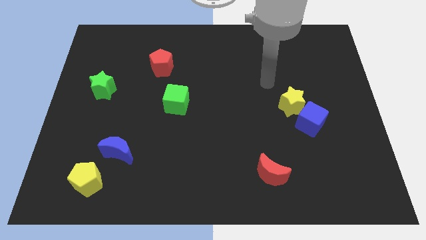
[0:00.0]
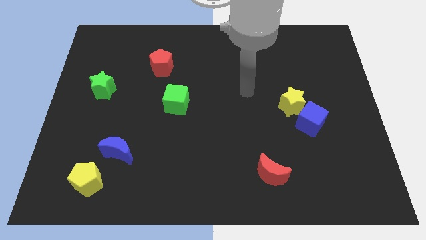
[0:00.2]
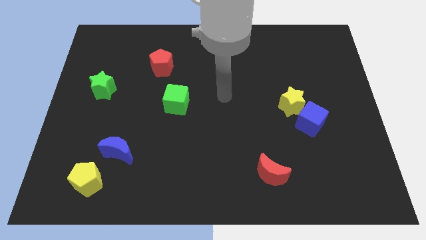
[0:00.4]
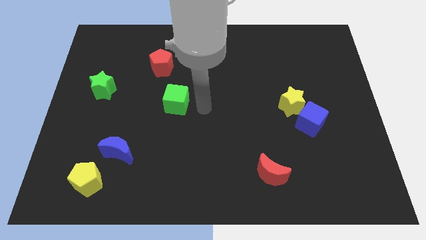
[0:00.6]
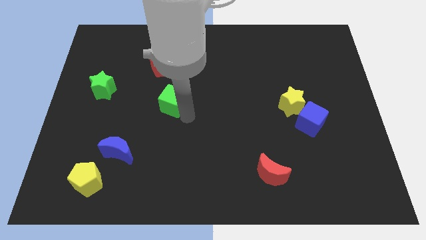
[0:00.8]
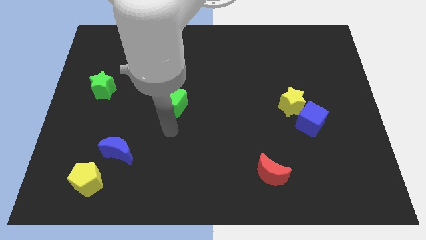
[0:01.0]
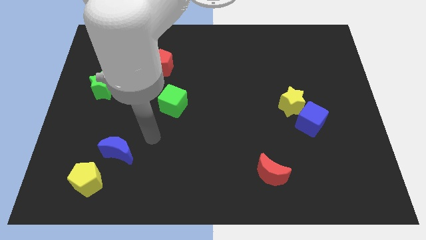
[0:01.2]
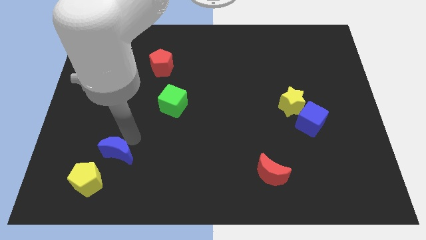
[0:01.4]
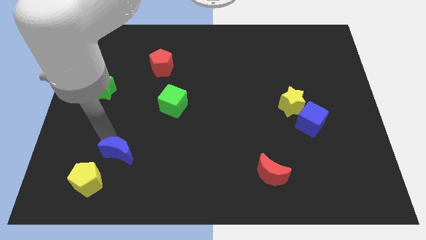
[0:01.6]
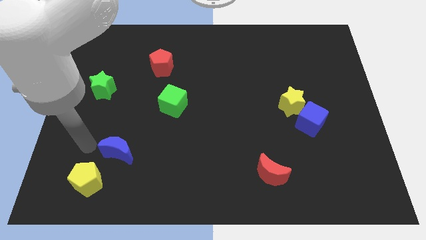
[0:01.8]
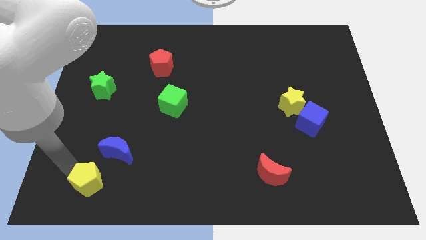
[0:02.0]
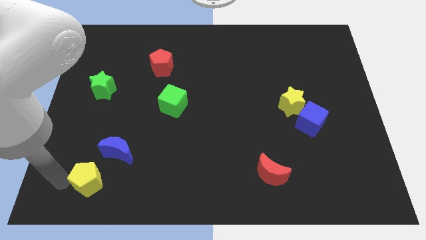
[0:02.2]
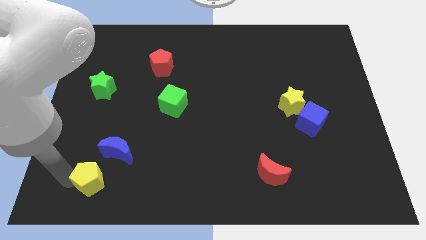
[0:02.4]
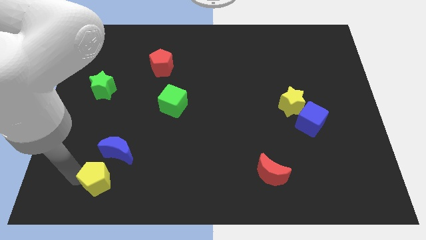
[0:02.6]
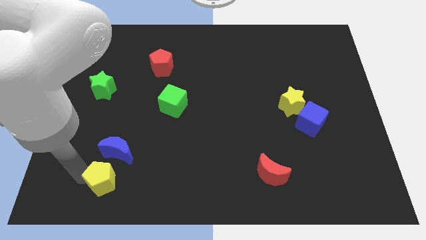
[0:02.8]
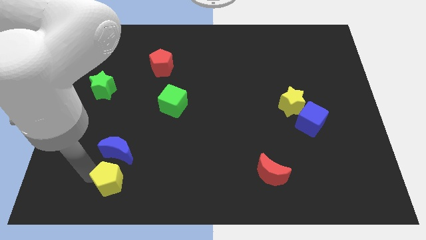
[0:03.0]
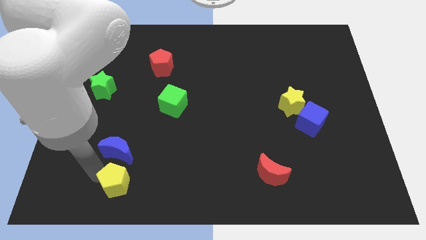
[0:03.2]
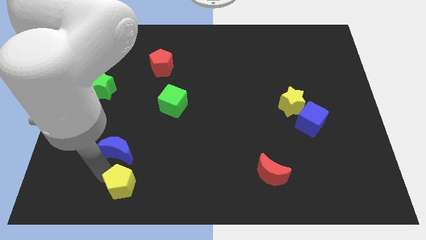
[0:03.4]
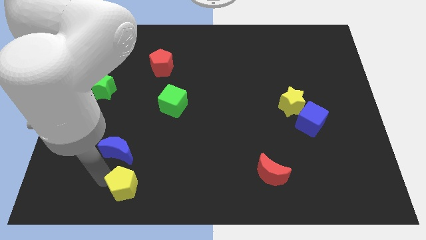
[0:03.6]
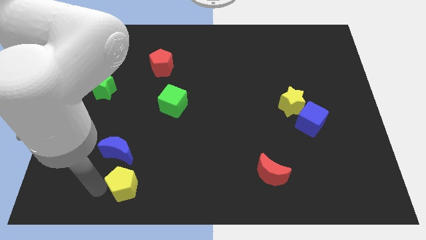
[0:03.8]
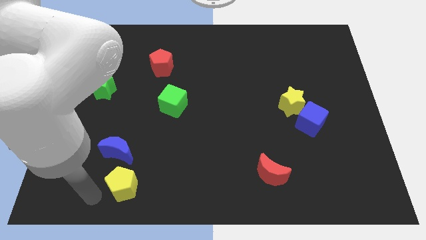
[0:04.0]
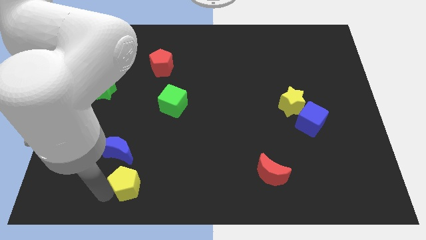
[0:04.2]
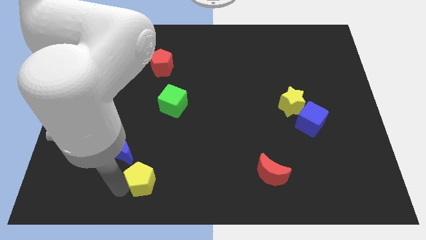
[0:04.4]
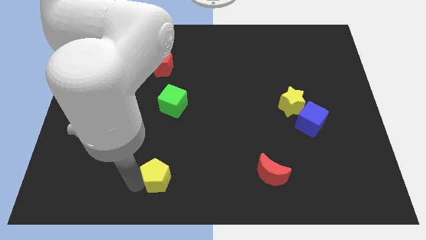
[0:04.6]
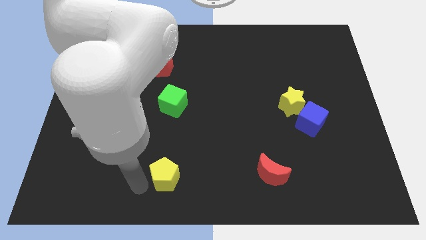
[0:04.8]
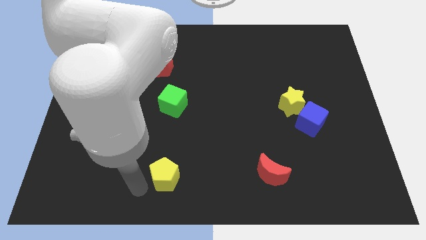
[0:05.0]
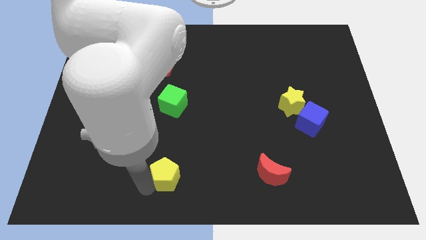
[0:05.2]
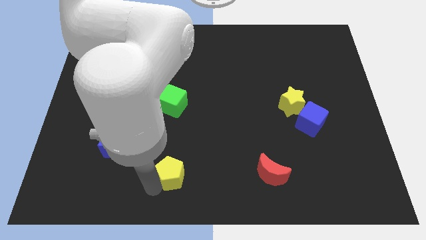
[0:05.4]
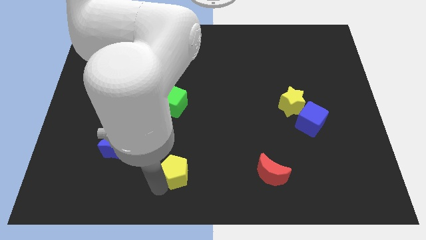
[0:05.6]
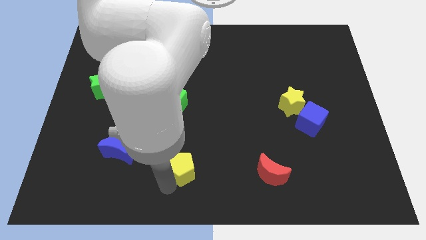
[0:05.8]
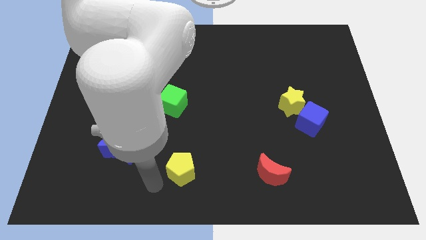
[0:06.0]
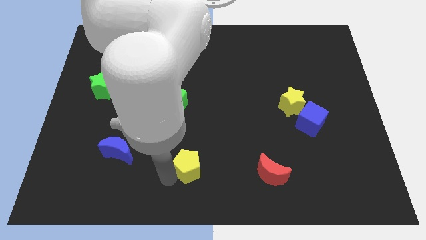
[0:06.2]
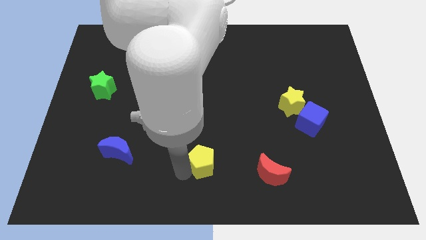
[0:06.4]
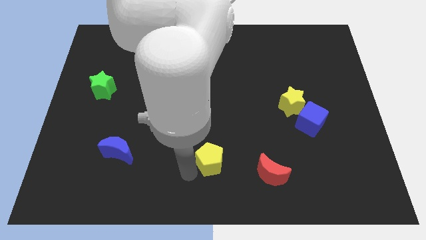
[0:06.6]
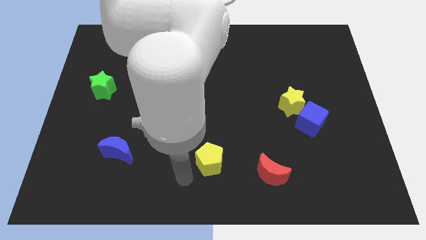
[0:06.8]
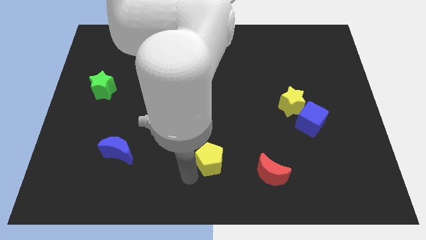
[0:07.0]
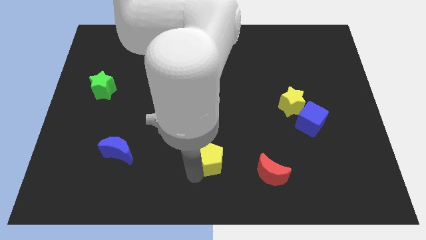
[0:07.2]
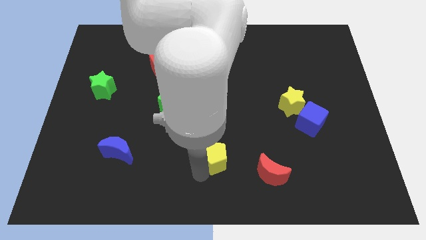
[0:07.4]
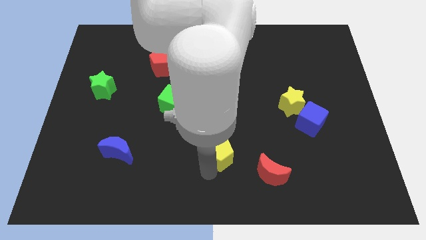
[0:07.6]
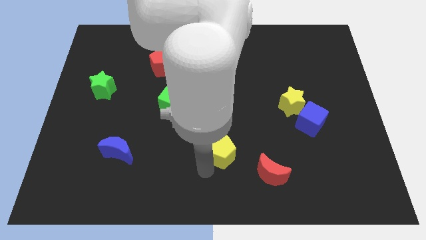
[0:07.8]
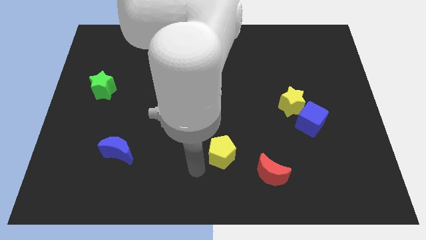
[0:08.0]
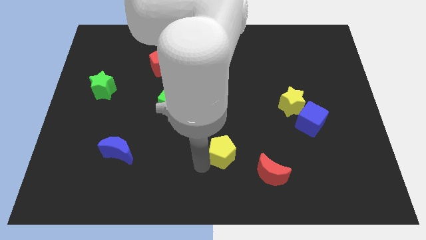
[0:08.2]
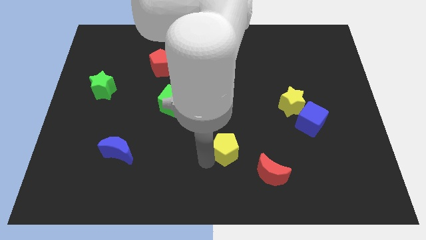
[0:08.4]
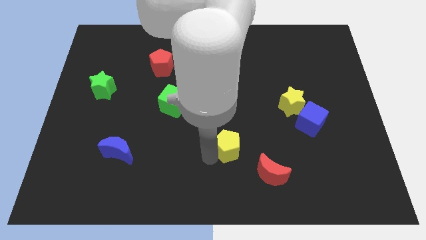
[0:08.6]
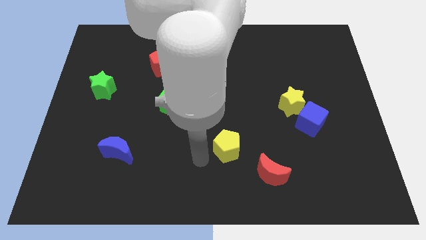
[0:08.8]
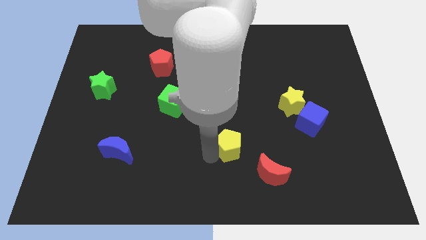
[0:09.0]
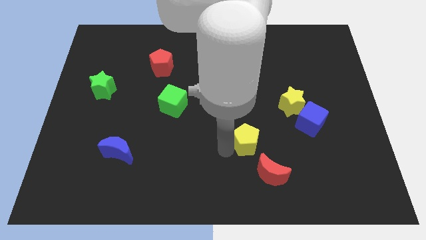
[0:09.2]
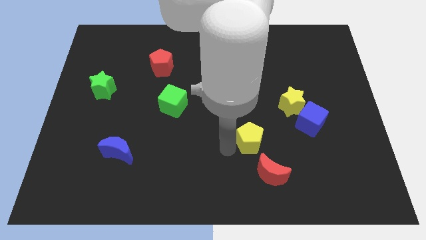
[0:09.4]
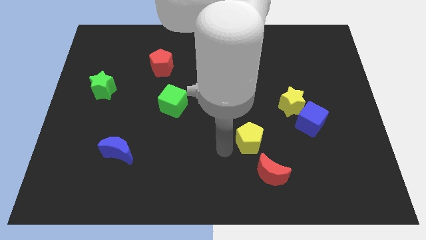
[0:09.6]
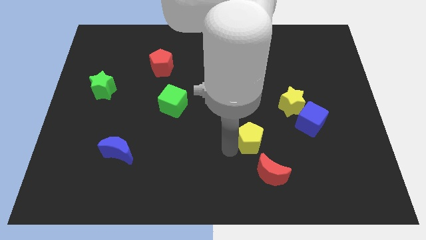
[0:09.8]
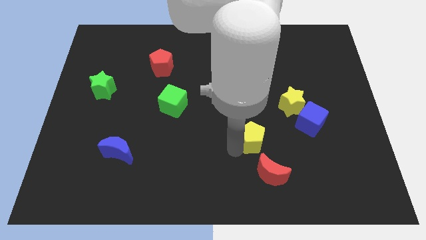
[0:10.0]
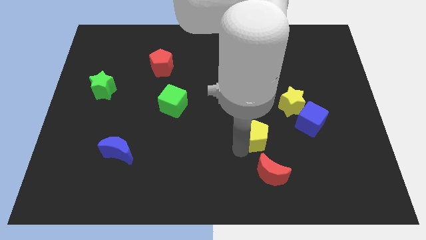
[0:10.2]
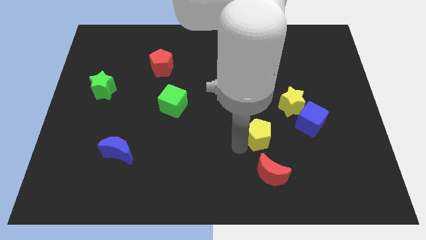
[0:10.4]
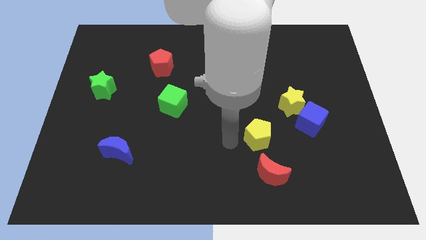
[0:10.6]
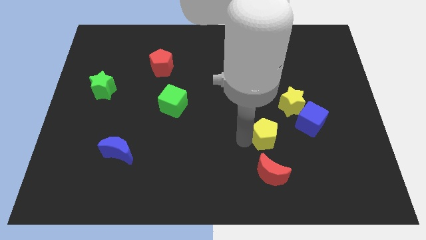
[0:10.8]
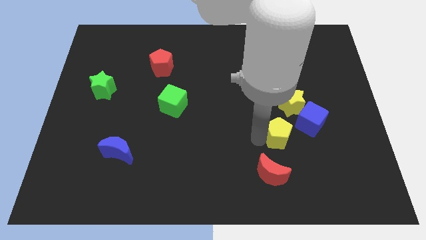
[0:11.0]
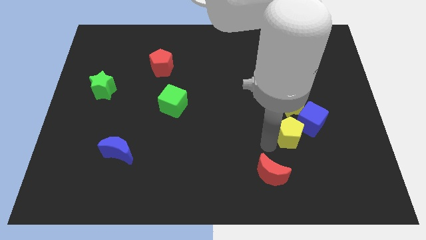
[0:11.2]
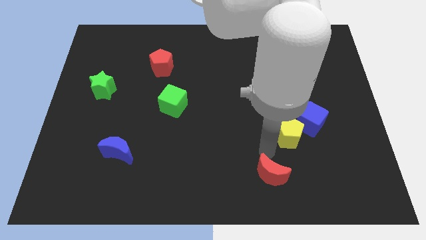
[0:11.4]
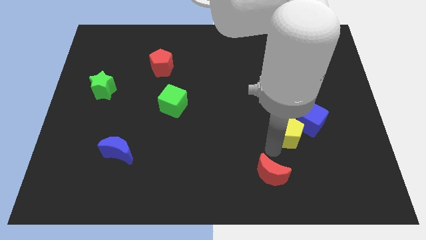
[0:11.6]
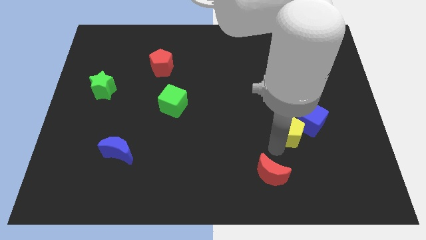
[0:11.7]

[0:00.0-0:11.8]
push the yellow pentagon close to the blue cube

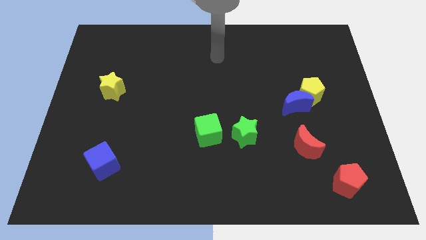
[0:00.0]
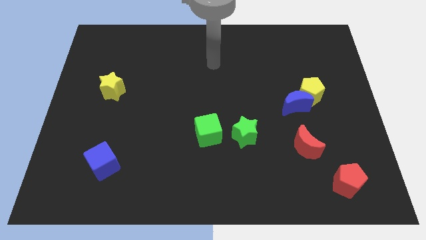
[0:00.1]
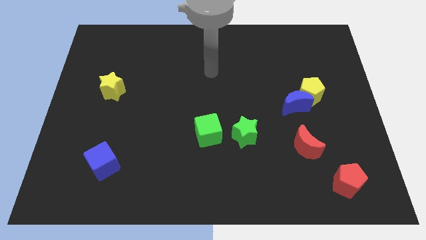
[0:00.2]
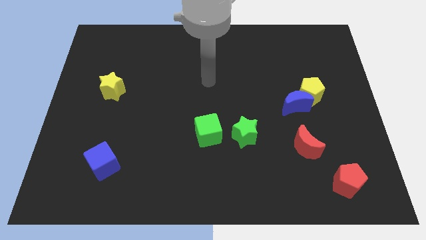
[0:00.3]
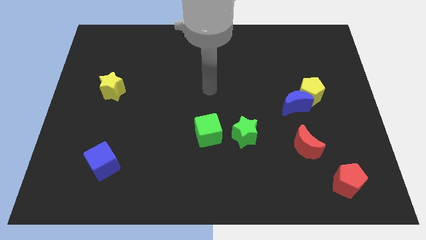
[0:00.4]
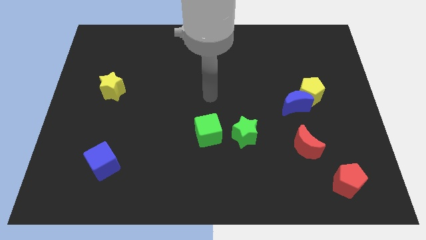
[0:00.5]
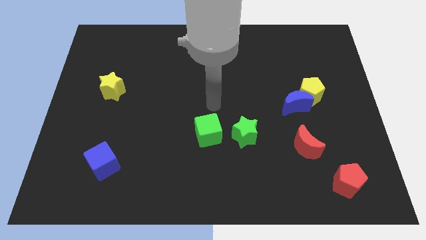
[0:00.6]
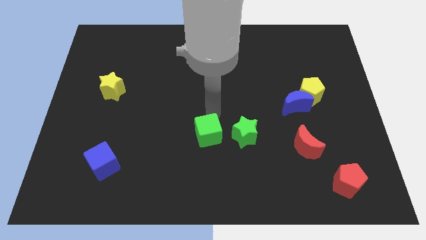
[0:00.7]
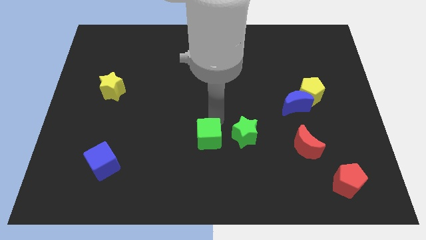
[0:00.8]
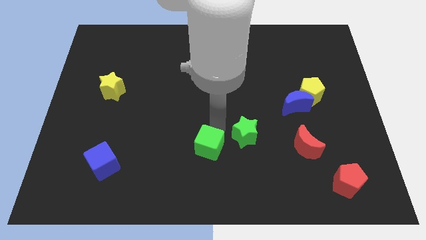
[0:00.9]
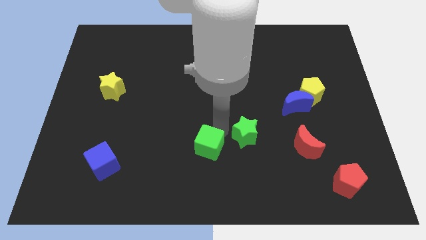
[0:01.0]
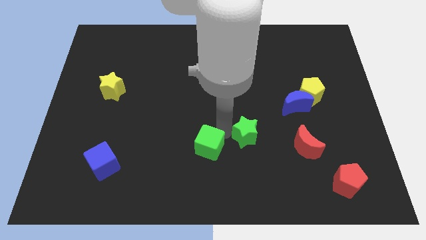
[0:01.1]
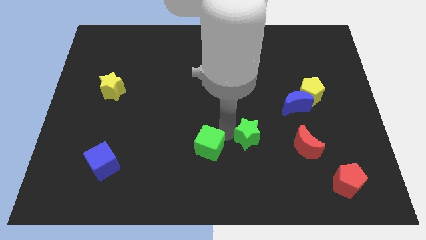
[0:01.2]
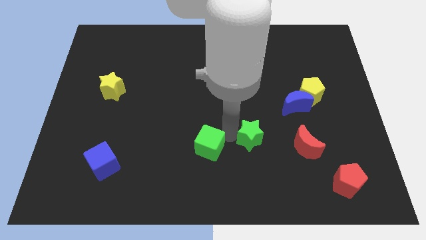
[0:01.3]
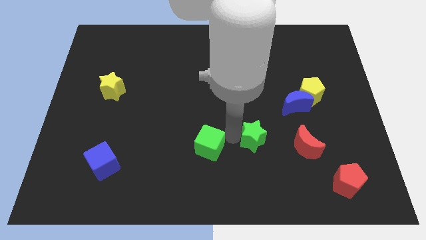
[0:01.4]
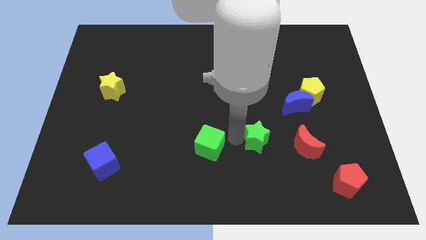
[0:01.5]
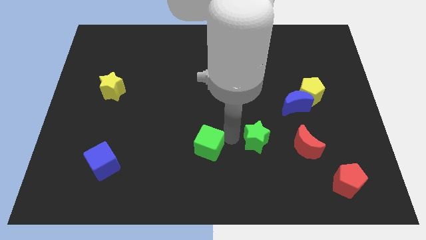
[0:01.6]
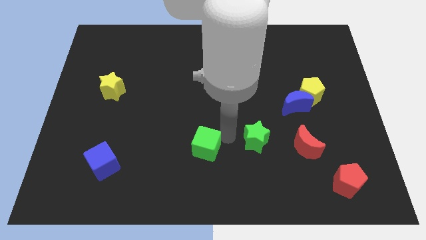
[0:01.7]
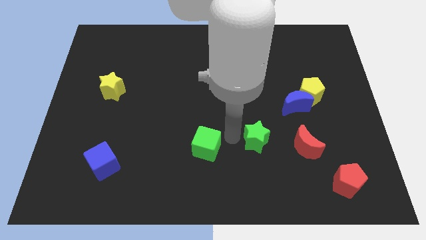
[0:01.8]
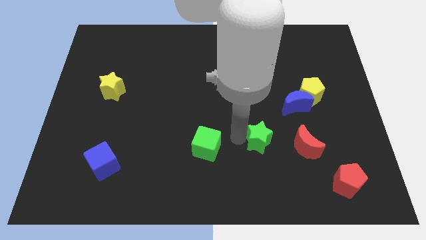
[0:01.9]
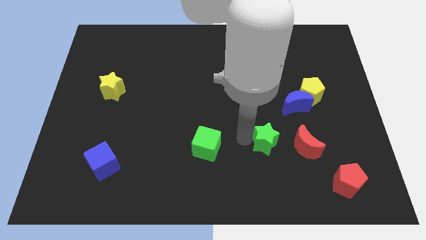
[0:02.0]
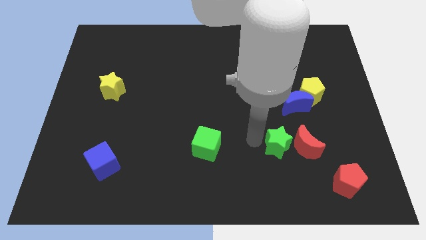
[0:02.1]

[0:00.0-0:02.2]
push the green star towards the red moon

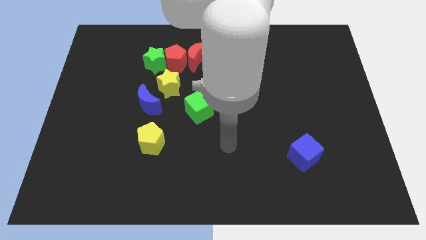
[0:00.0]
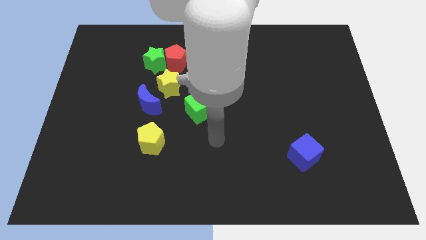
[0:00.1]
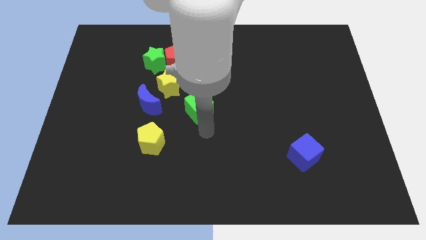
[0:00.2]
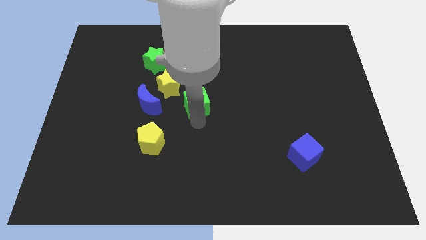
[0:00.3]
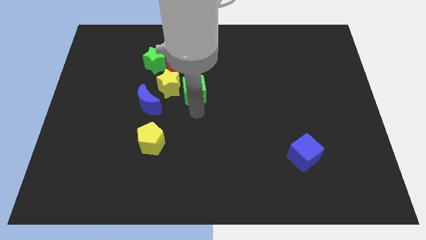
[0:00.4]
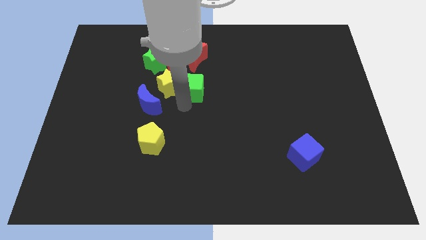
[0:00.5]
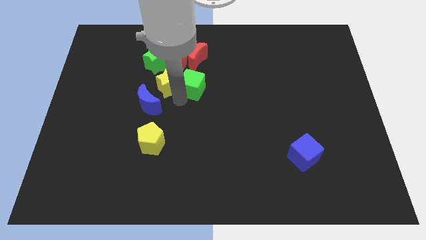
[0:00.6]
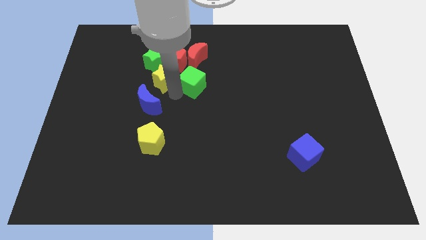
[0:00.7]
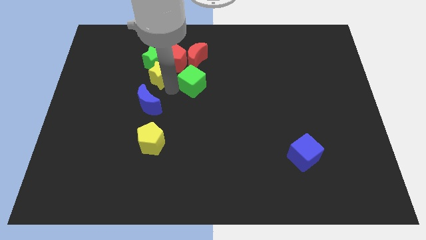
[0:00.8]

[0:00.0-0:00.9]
move the yellow star to the green star
